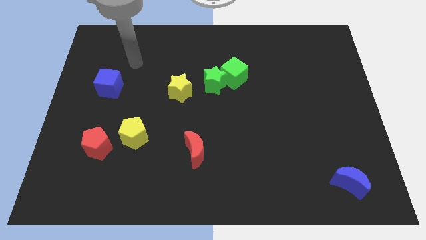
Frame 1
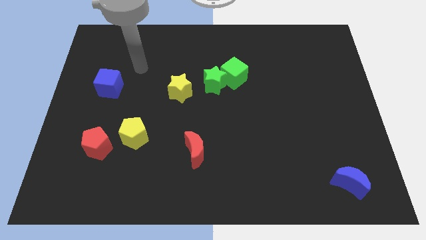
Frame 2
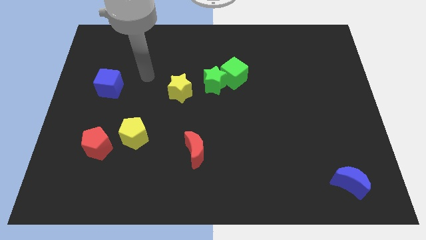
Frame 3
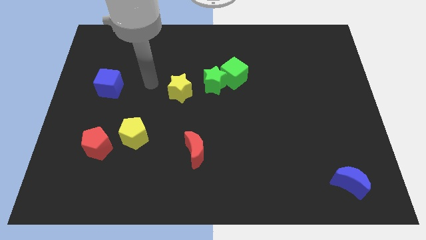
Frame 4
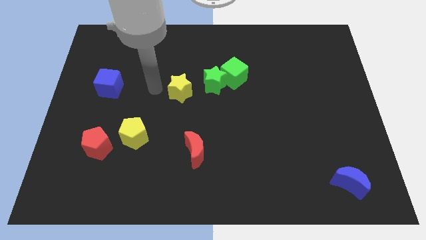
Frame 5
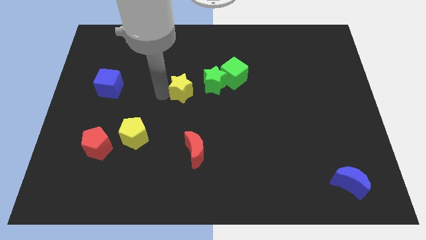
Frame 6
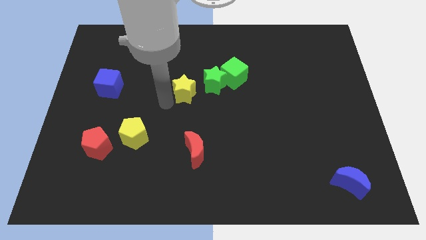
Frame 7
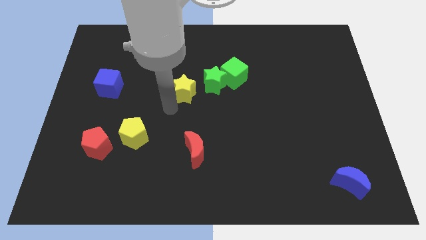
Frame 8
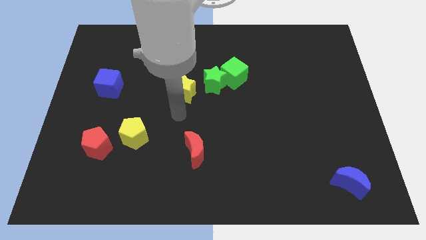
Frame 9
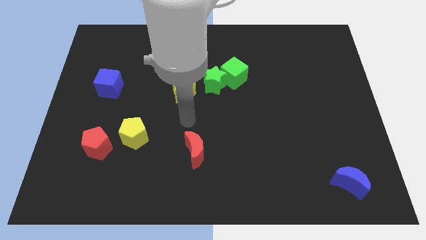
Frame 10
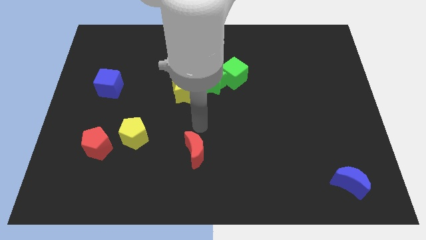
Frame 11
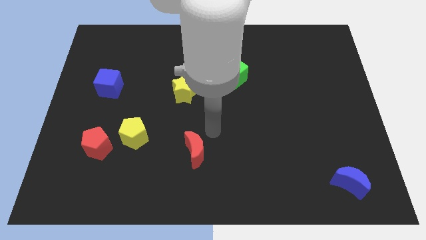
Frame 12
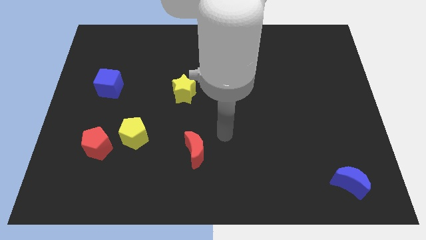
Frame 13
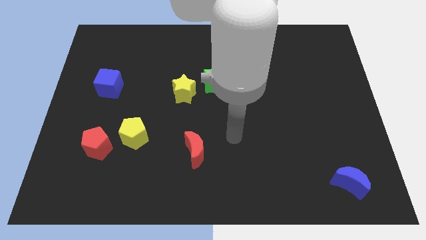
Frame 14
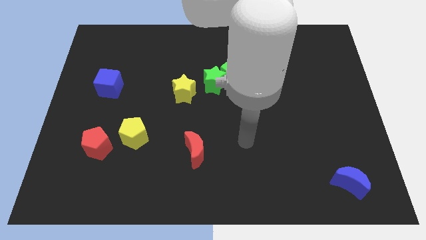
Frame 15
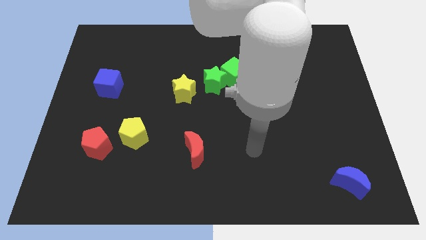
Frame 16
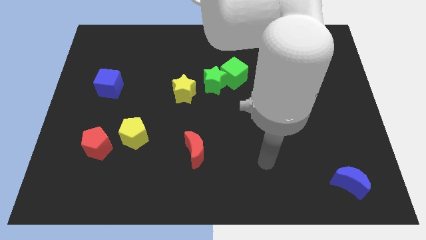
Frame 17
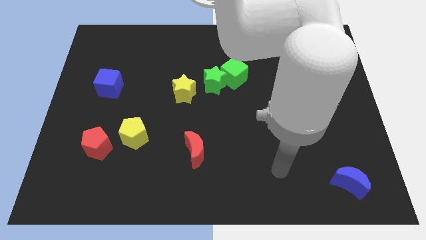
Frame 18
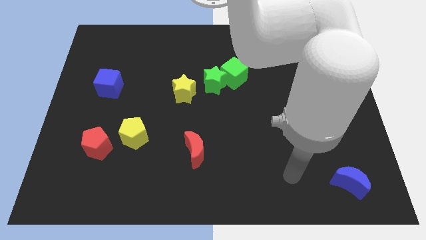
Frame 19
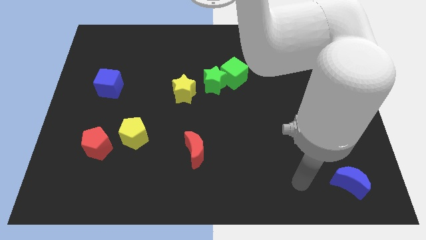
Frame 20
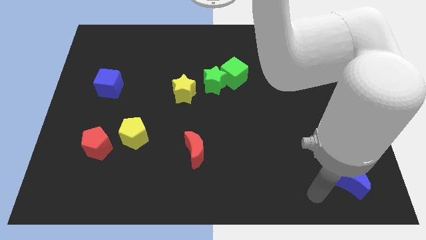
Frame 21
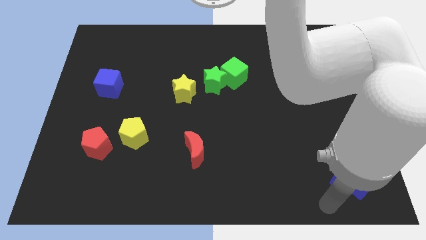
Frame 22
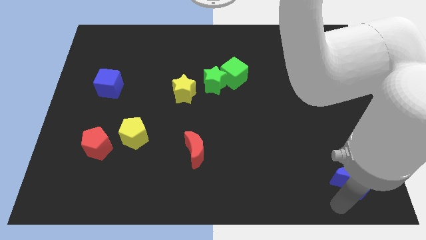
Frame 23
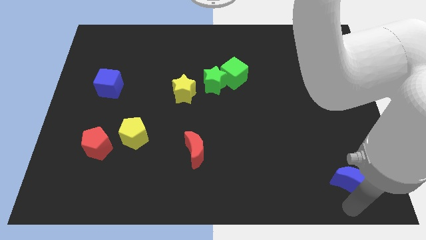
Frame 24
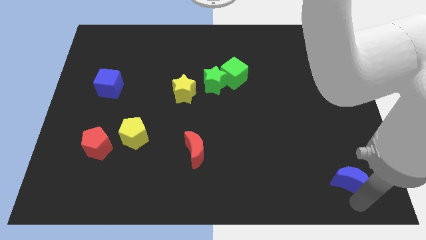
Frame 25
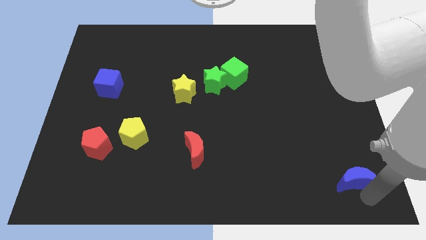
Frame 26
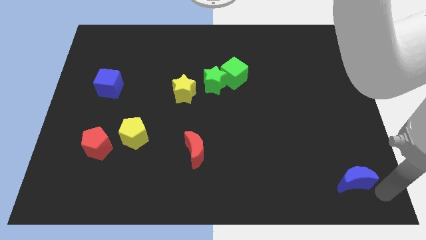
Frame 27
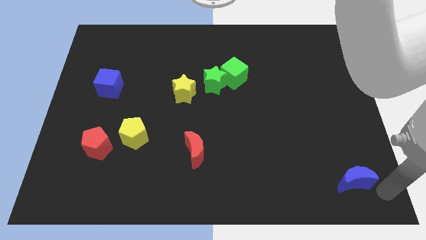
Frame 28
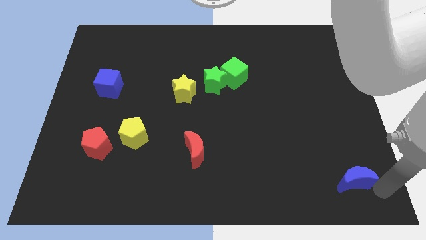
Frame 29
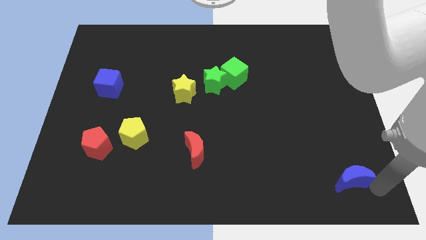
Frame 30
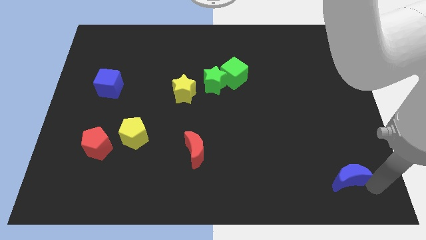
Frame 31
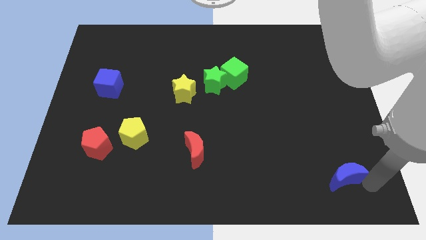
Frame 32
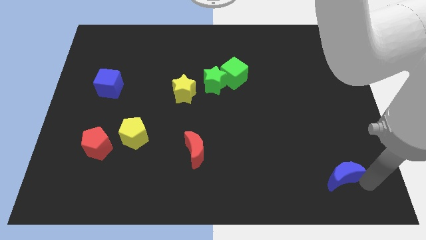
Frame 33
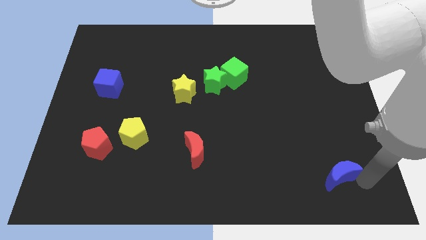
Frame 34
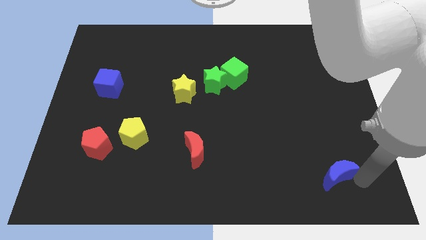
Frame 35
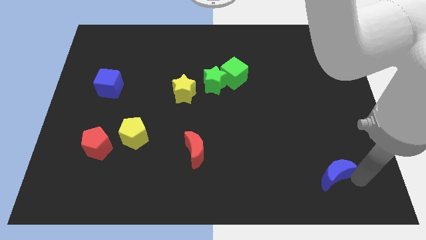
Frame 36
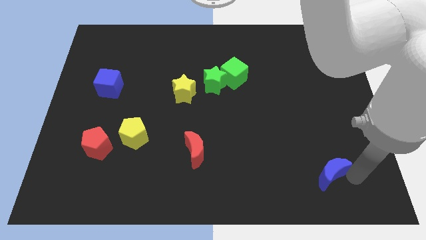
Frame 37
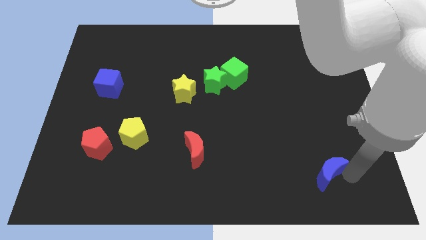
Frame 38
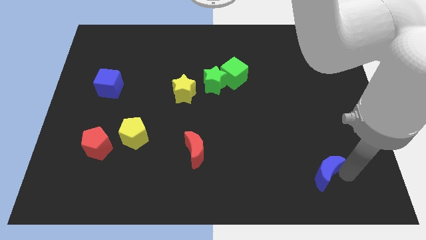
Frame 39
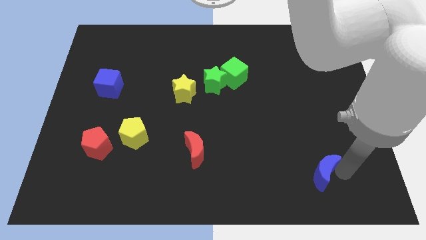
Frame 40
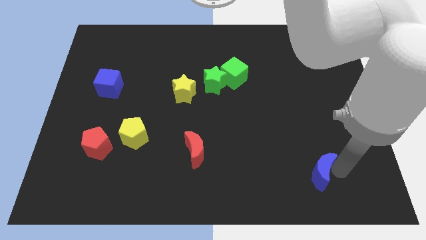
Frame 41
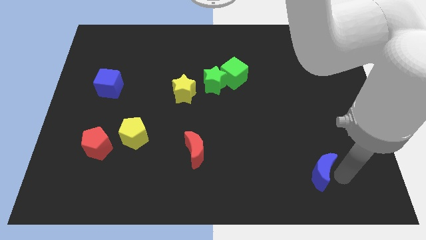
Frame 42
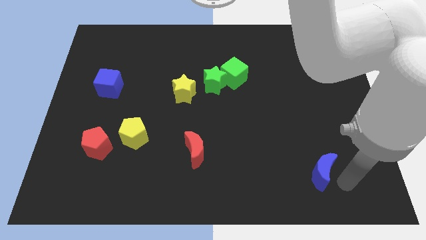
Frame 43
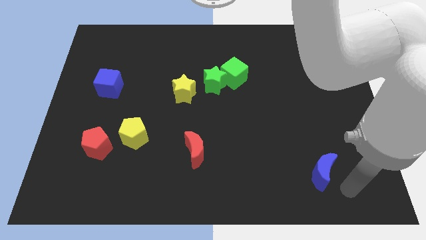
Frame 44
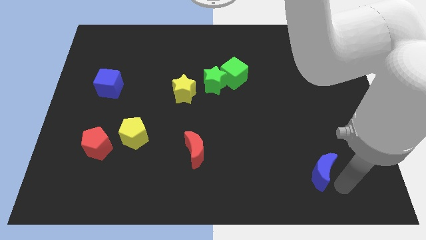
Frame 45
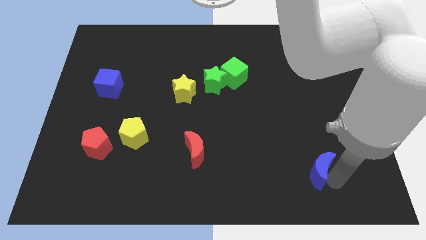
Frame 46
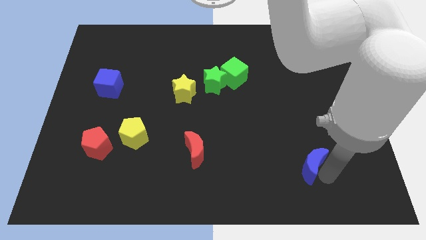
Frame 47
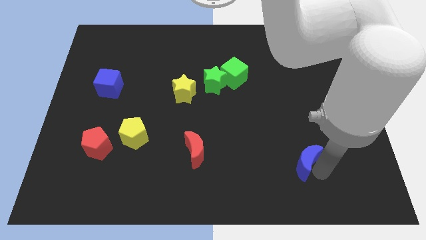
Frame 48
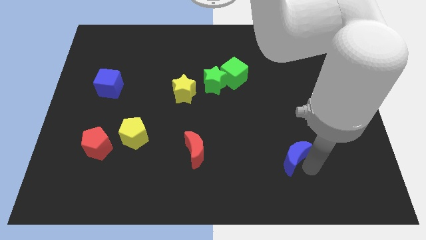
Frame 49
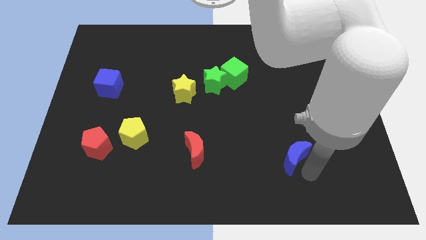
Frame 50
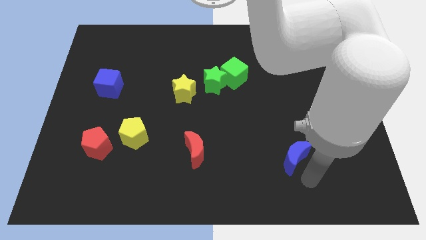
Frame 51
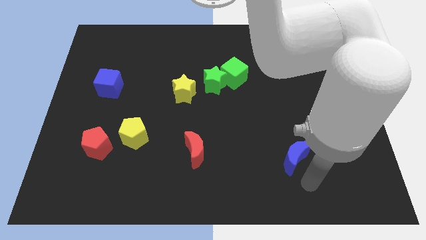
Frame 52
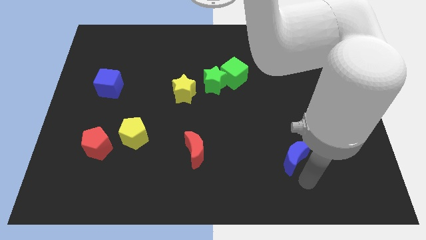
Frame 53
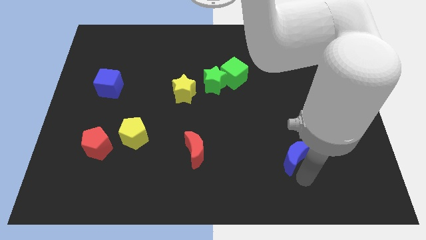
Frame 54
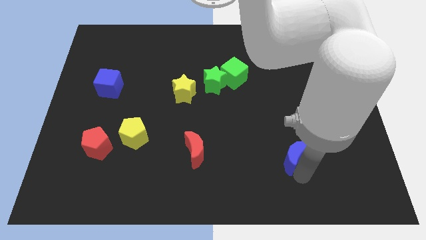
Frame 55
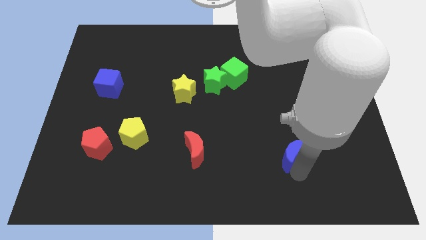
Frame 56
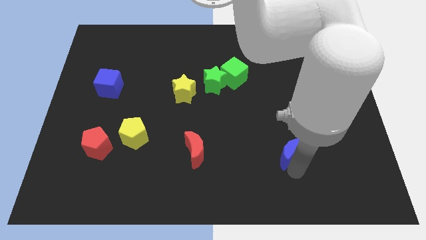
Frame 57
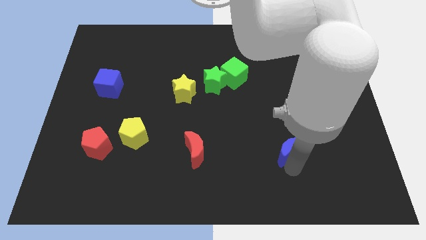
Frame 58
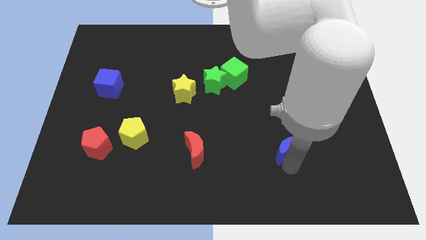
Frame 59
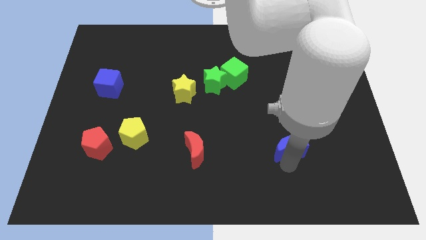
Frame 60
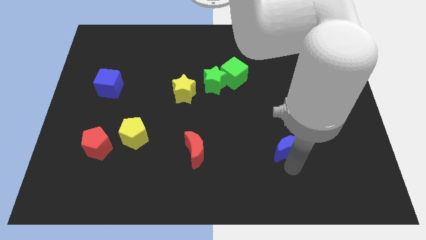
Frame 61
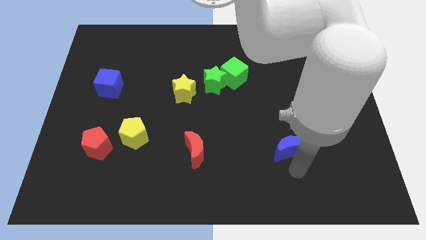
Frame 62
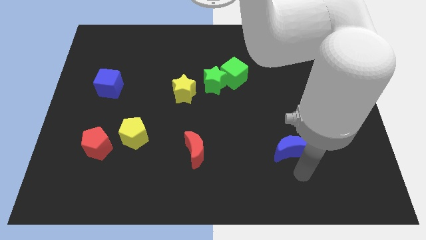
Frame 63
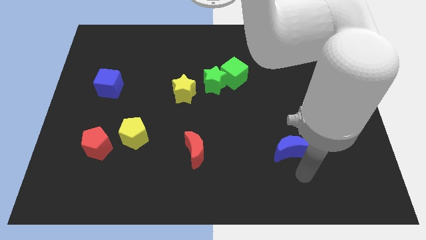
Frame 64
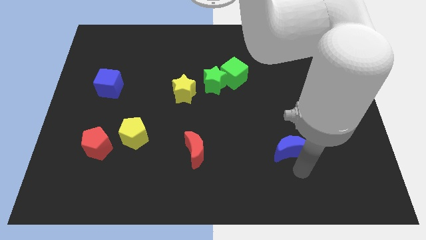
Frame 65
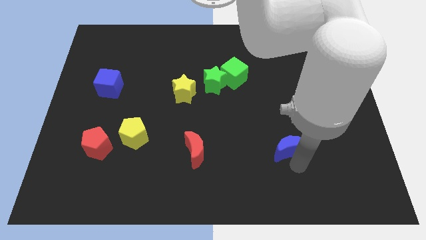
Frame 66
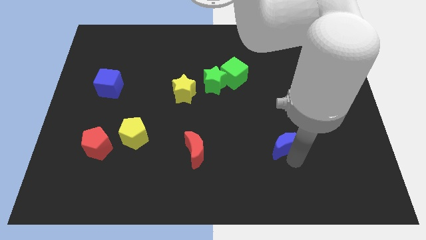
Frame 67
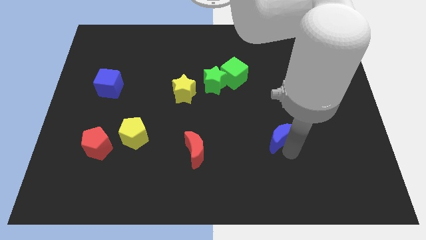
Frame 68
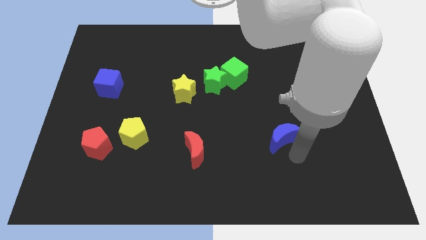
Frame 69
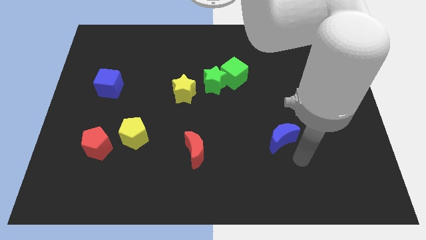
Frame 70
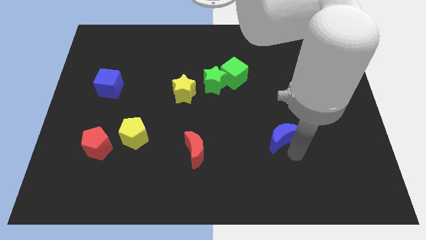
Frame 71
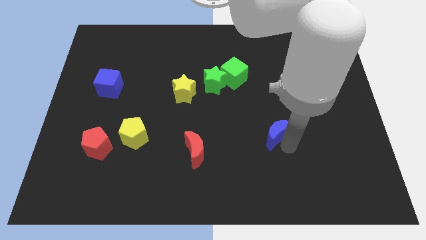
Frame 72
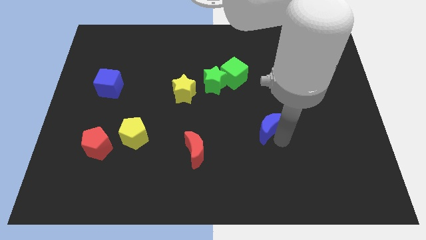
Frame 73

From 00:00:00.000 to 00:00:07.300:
move the blue moon diagonally up and to the left

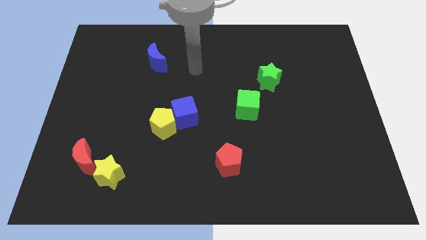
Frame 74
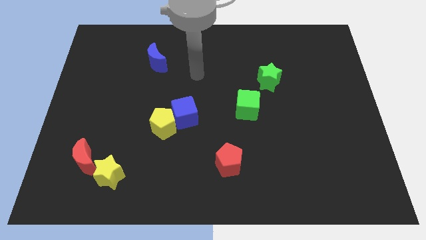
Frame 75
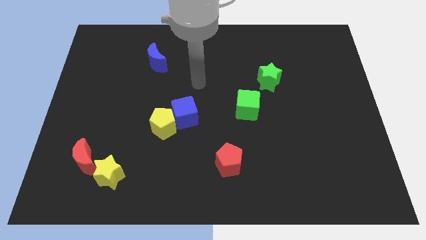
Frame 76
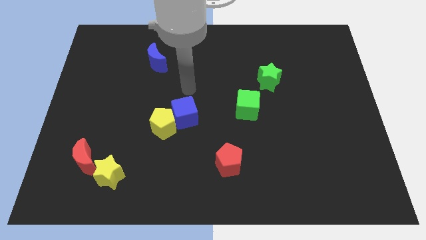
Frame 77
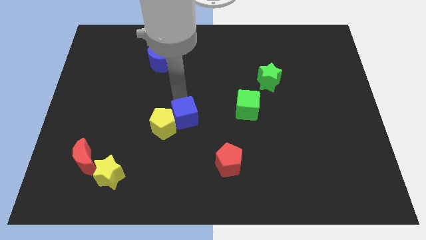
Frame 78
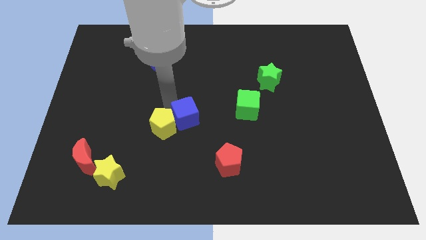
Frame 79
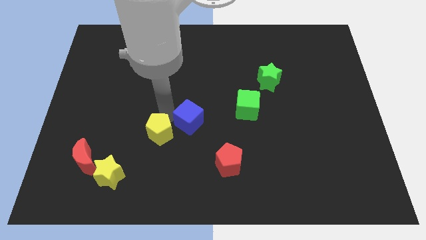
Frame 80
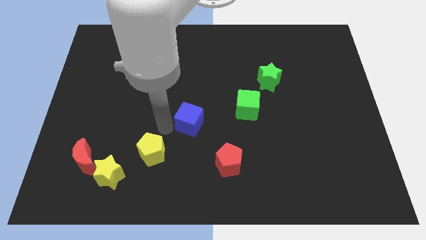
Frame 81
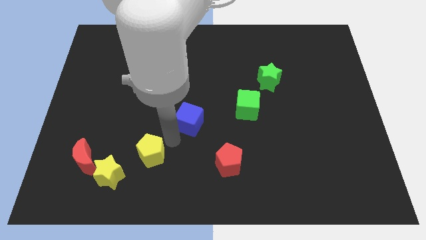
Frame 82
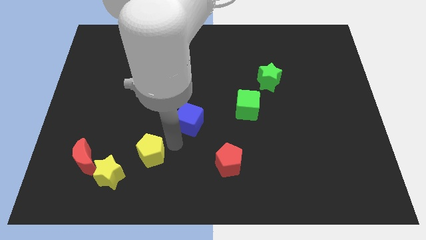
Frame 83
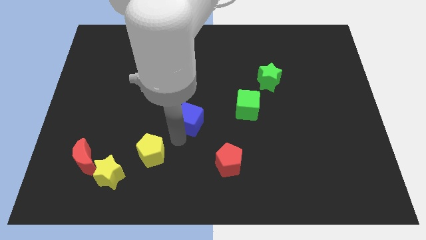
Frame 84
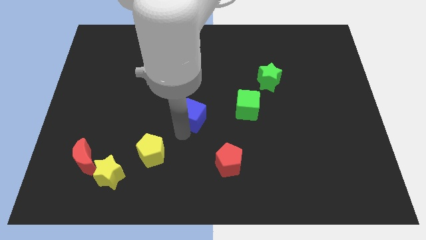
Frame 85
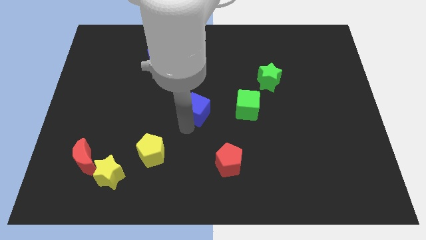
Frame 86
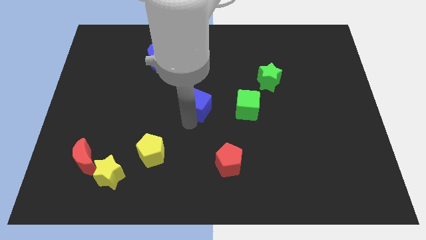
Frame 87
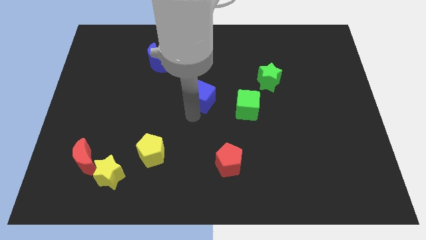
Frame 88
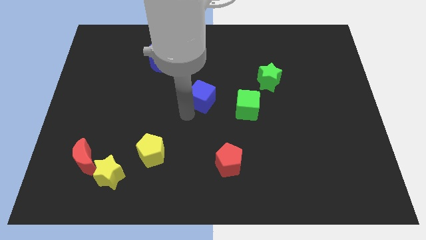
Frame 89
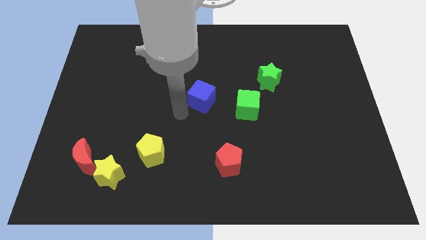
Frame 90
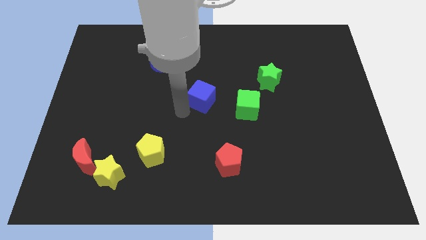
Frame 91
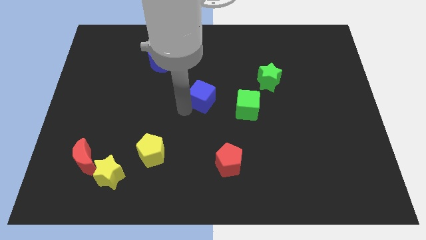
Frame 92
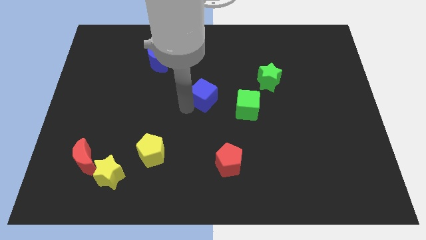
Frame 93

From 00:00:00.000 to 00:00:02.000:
slide the blue cube diagonally upwards and to the right somewhat
